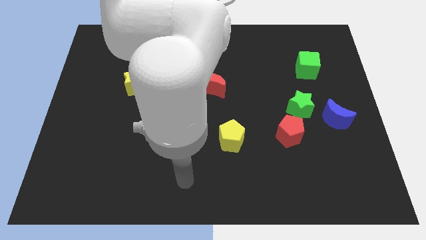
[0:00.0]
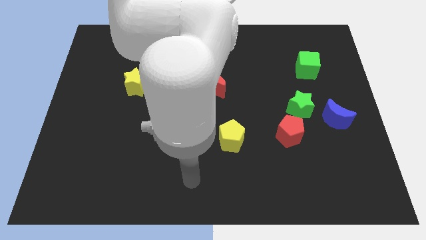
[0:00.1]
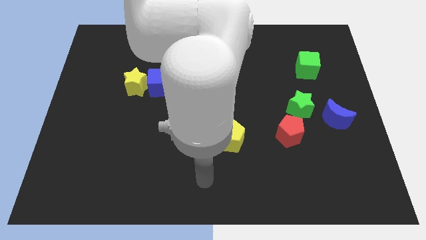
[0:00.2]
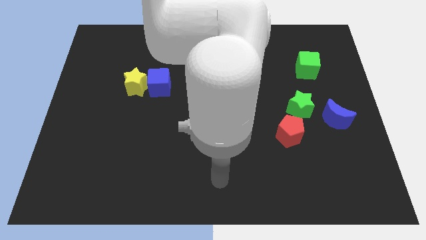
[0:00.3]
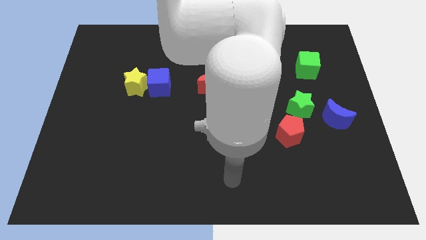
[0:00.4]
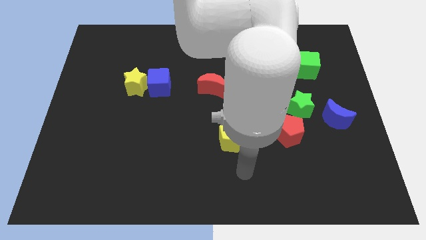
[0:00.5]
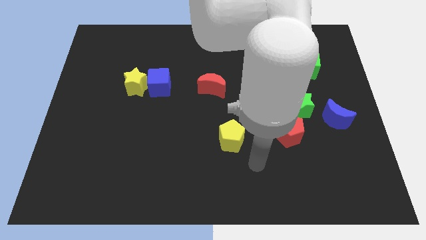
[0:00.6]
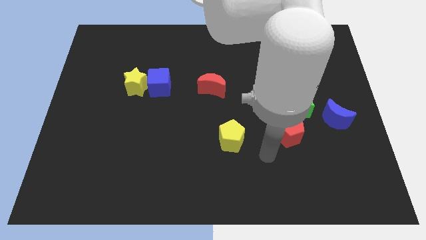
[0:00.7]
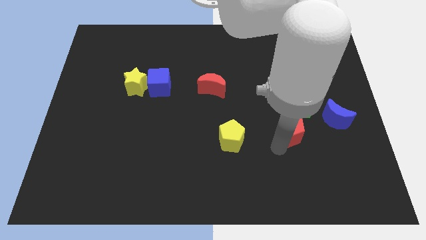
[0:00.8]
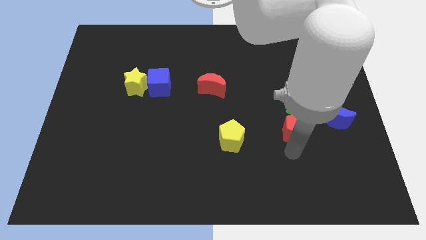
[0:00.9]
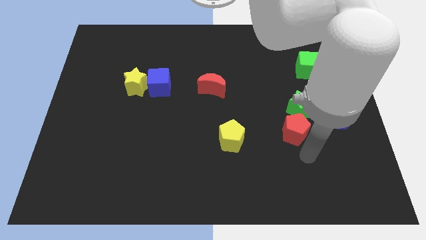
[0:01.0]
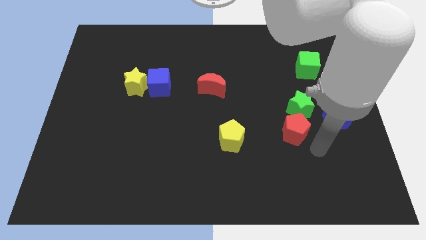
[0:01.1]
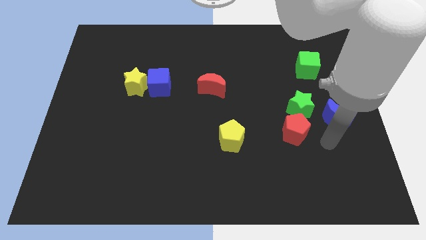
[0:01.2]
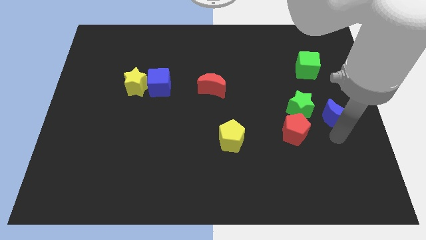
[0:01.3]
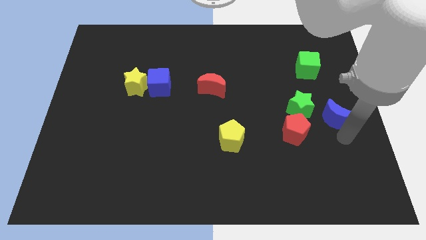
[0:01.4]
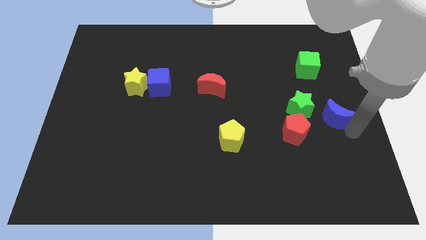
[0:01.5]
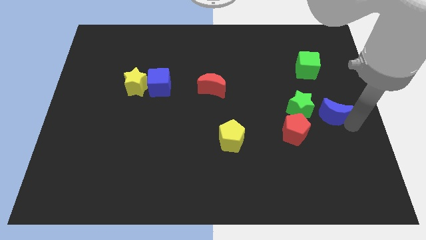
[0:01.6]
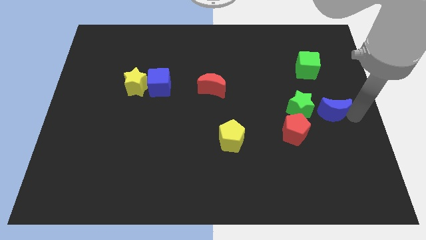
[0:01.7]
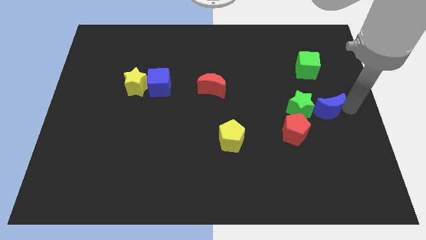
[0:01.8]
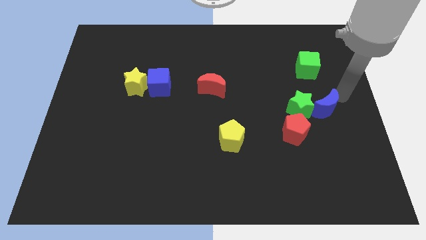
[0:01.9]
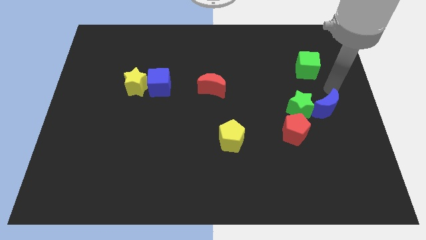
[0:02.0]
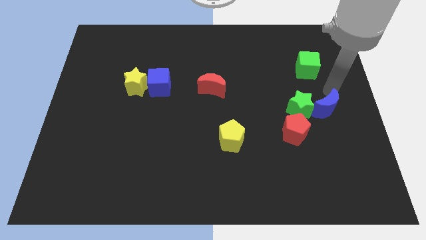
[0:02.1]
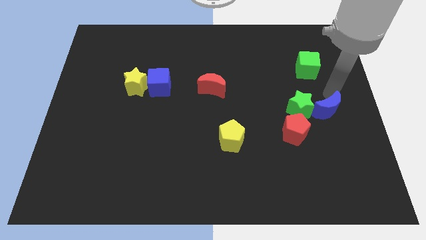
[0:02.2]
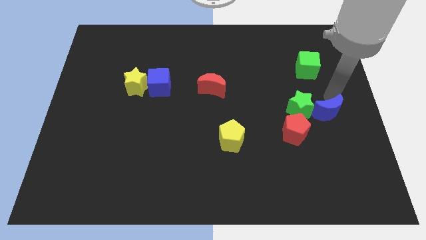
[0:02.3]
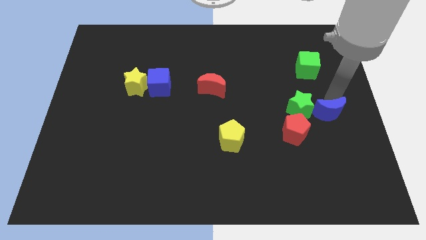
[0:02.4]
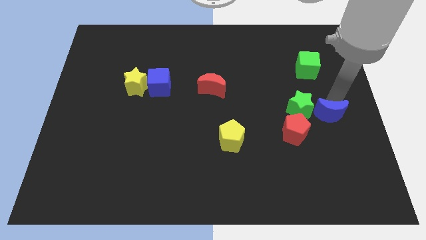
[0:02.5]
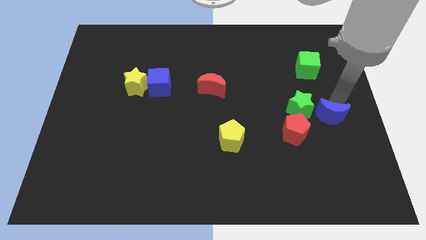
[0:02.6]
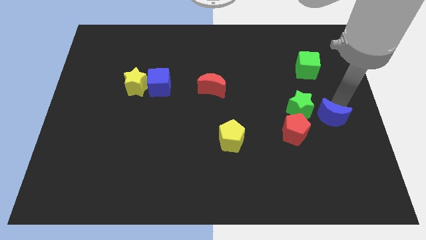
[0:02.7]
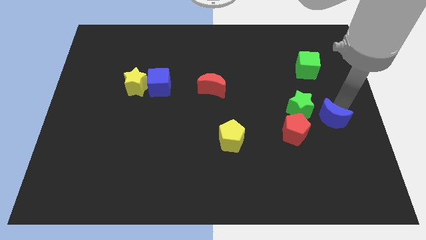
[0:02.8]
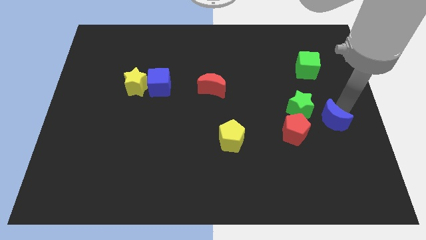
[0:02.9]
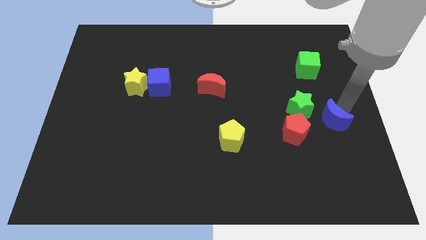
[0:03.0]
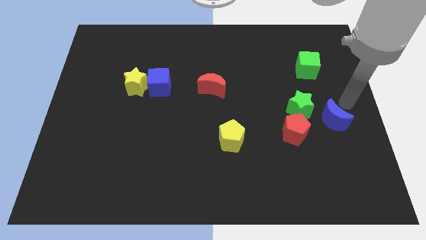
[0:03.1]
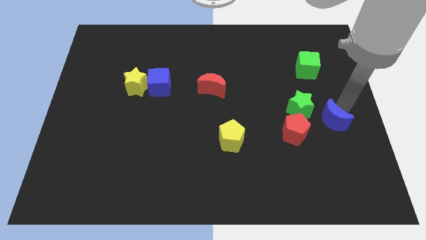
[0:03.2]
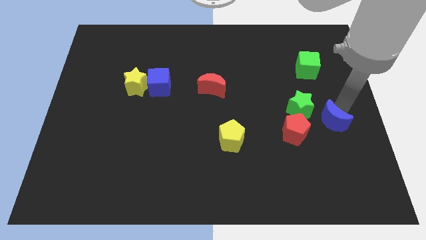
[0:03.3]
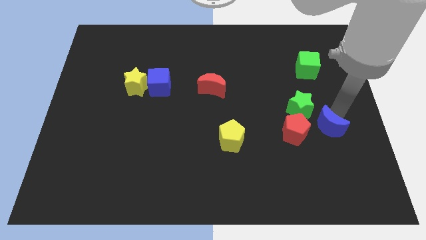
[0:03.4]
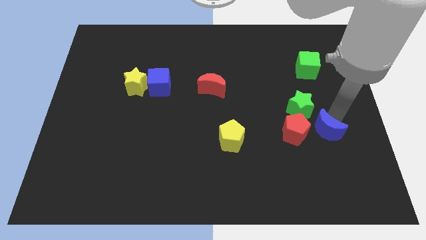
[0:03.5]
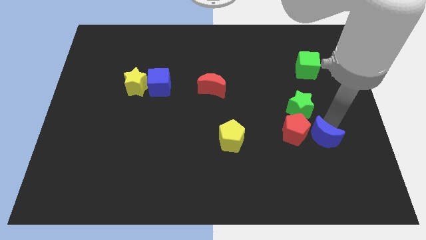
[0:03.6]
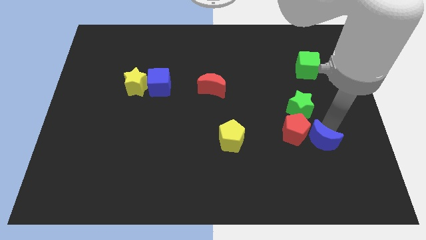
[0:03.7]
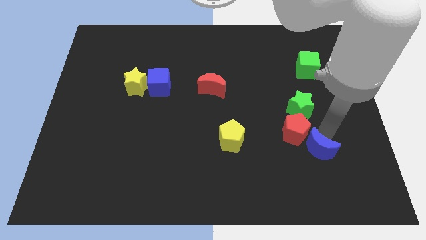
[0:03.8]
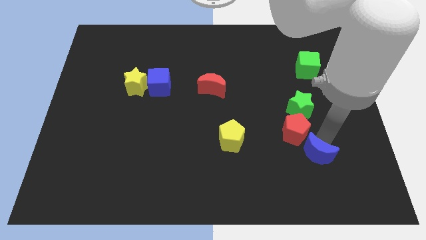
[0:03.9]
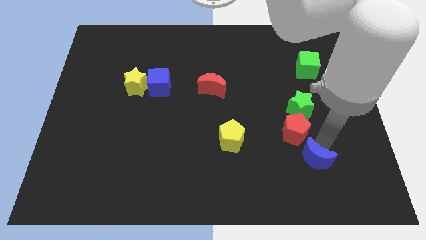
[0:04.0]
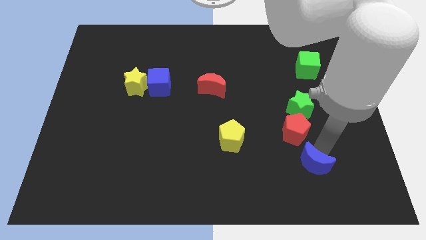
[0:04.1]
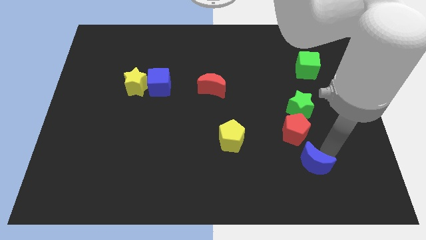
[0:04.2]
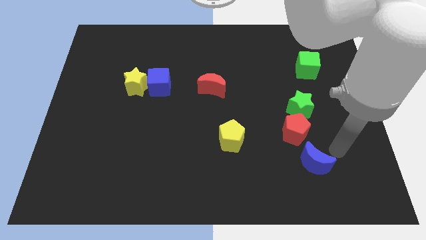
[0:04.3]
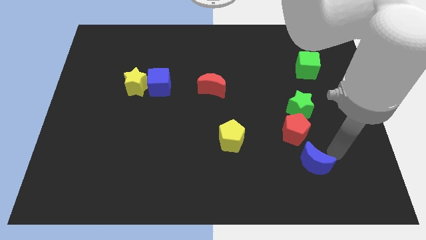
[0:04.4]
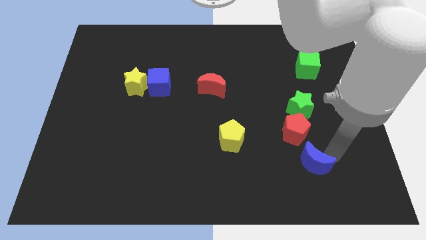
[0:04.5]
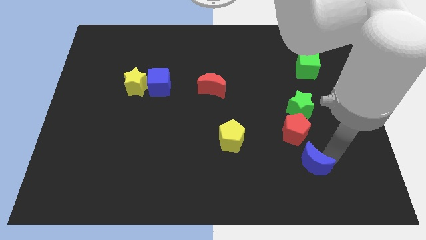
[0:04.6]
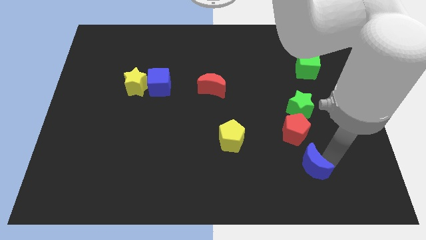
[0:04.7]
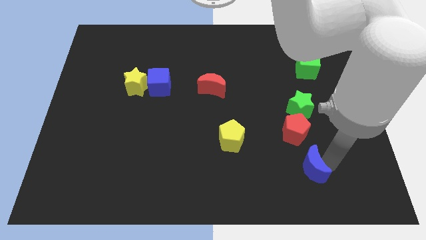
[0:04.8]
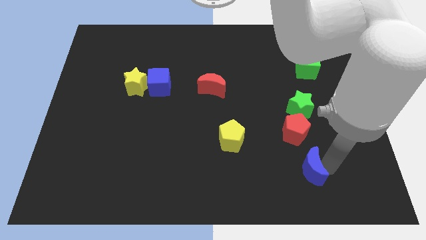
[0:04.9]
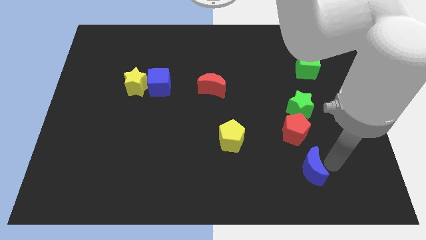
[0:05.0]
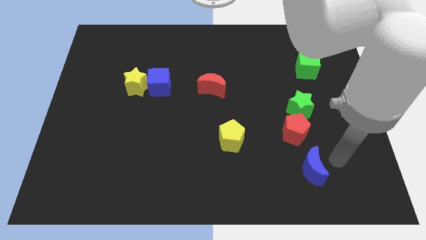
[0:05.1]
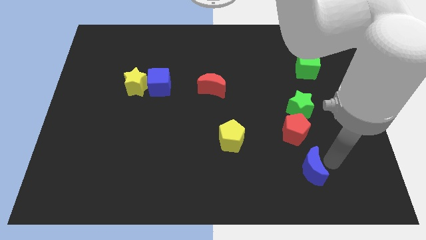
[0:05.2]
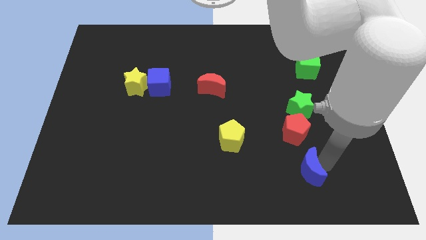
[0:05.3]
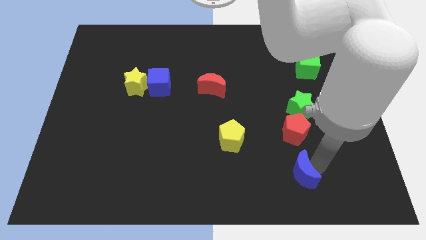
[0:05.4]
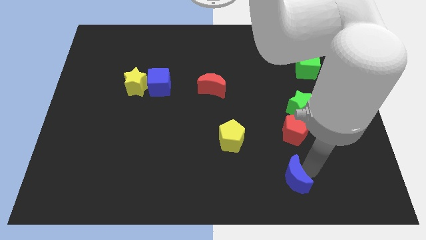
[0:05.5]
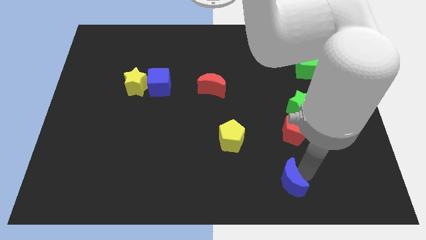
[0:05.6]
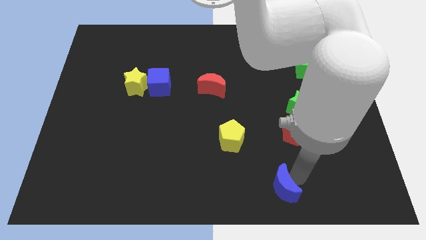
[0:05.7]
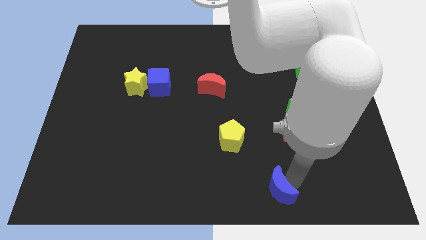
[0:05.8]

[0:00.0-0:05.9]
move the blue moon to the bottom
